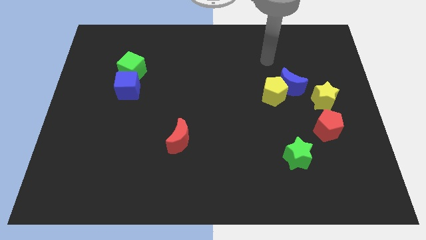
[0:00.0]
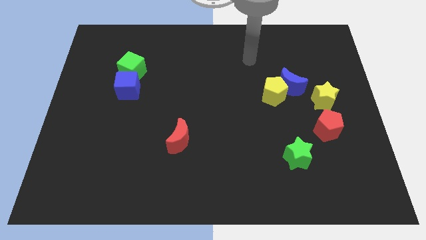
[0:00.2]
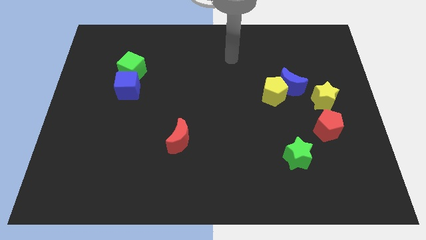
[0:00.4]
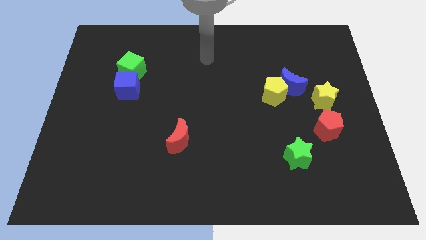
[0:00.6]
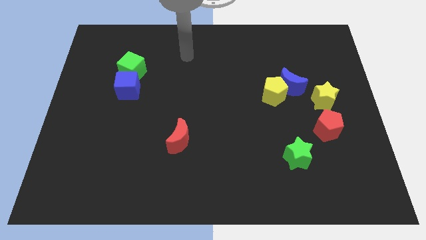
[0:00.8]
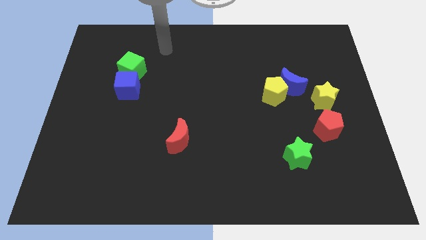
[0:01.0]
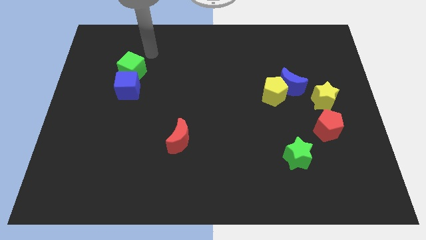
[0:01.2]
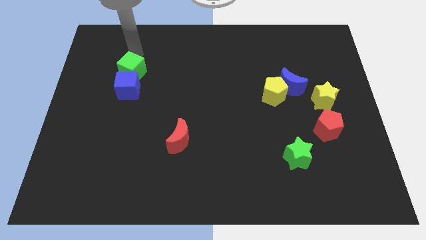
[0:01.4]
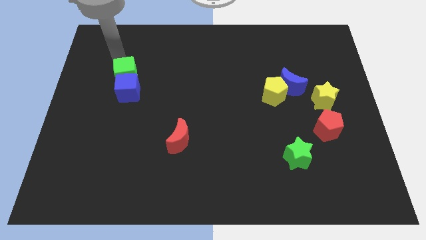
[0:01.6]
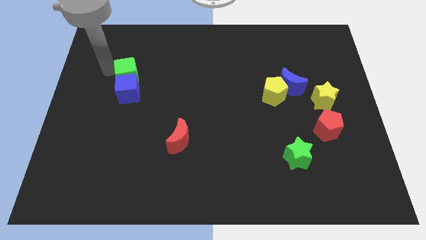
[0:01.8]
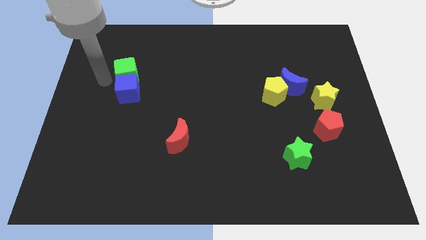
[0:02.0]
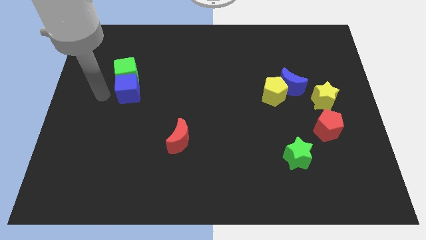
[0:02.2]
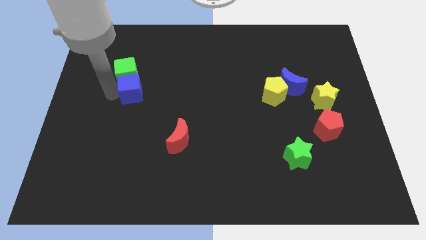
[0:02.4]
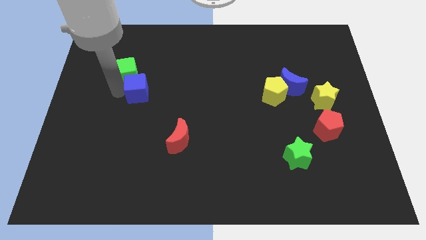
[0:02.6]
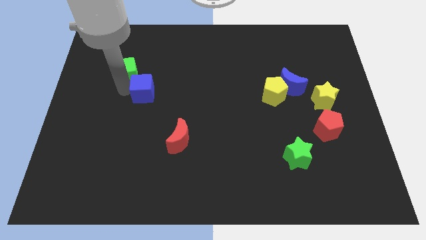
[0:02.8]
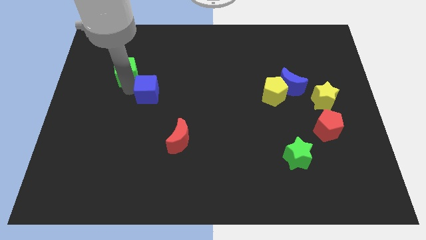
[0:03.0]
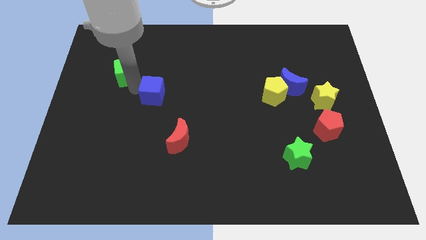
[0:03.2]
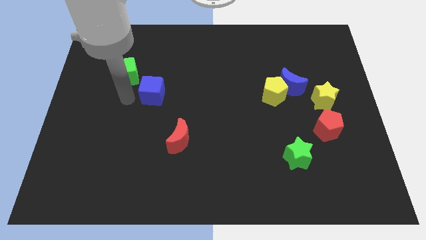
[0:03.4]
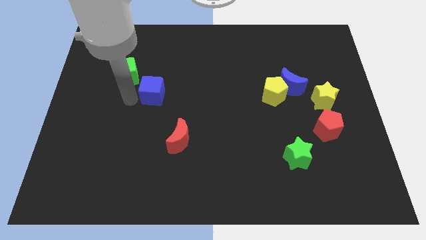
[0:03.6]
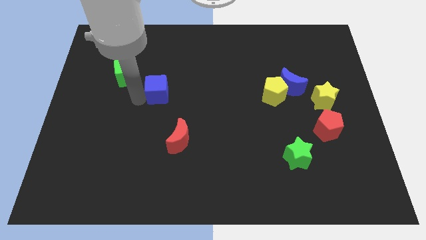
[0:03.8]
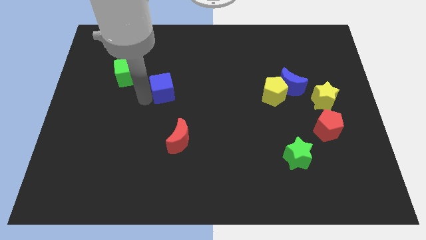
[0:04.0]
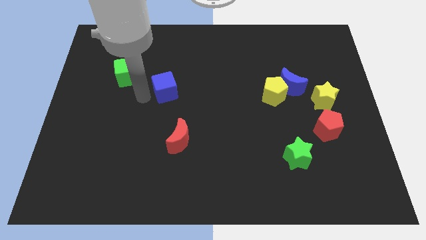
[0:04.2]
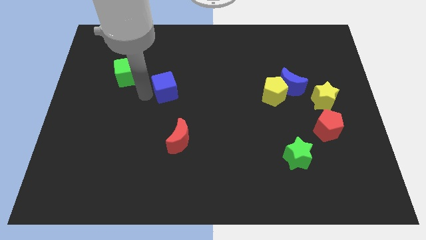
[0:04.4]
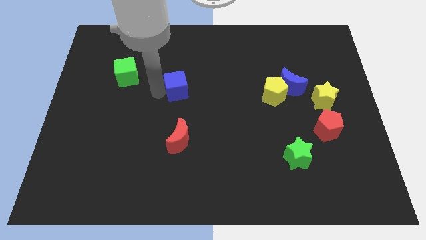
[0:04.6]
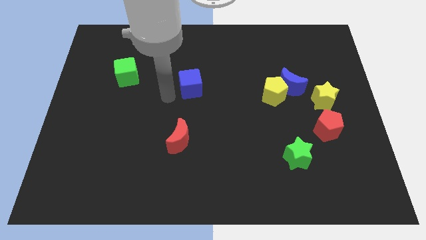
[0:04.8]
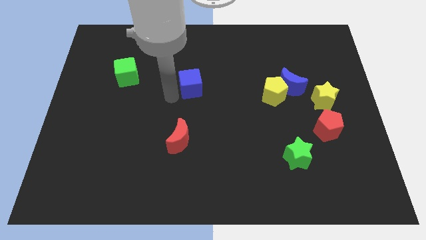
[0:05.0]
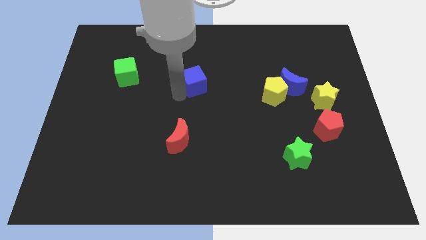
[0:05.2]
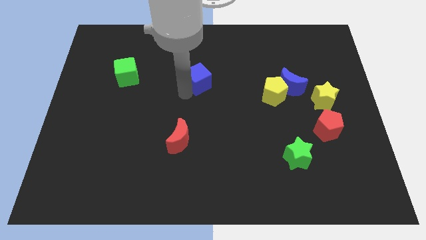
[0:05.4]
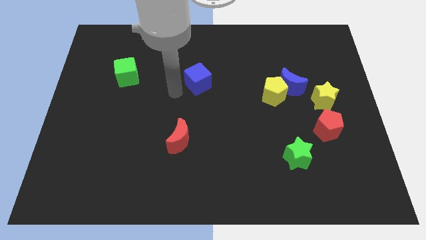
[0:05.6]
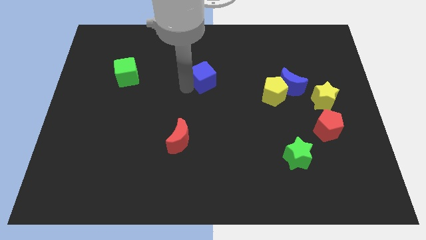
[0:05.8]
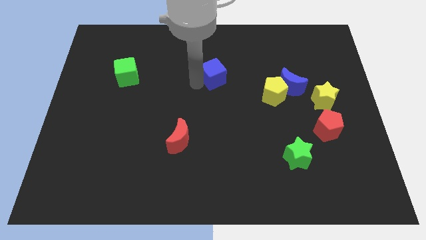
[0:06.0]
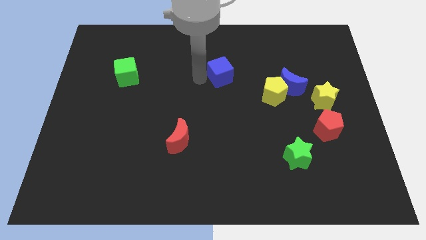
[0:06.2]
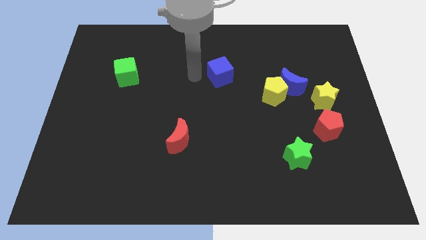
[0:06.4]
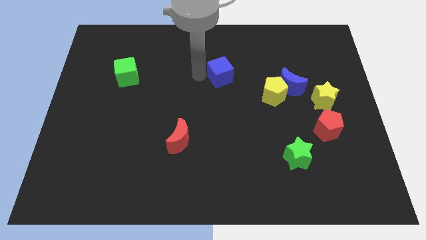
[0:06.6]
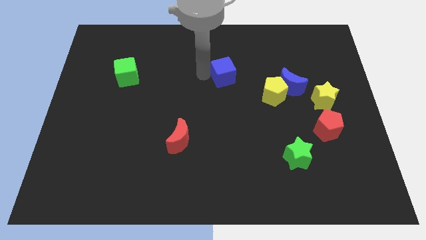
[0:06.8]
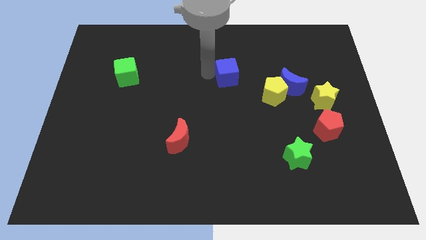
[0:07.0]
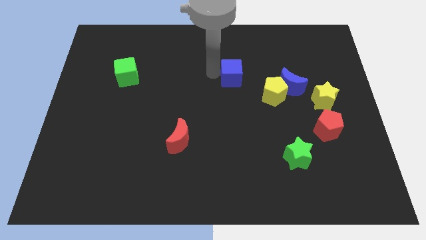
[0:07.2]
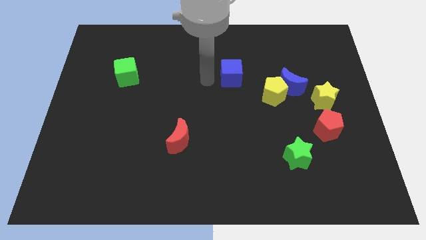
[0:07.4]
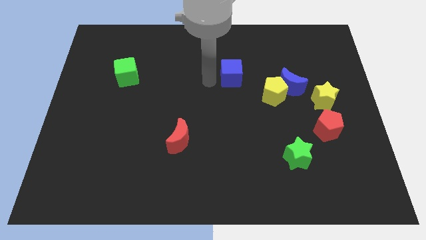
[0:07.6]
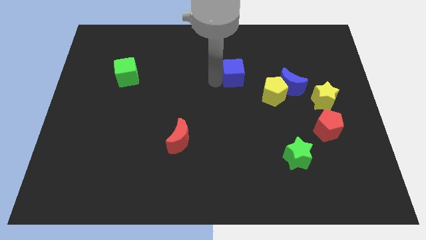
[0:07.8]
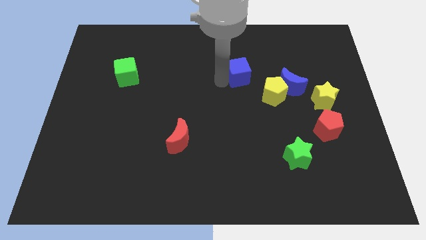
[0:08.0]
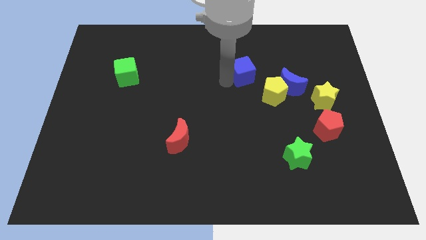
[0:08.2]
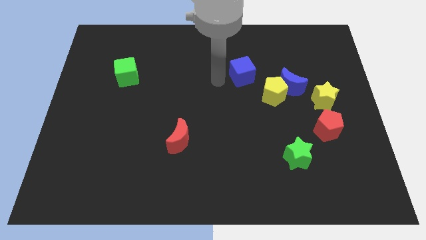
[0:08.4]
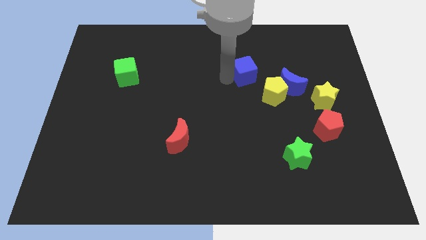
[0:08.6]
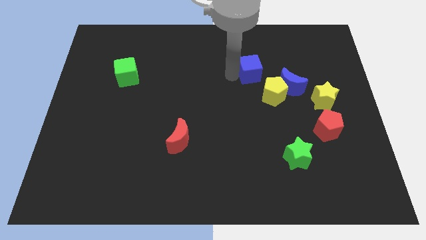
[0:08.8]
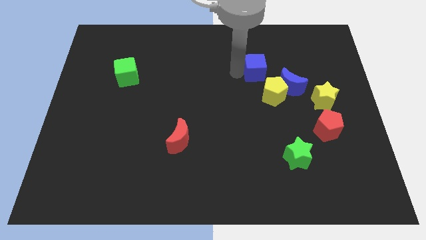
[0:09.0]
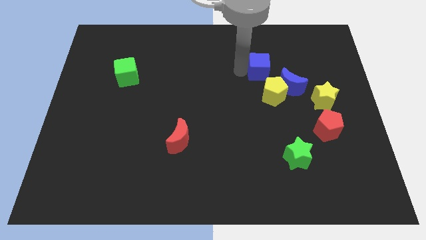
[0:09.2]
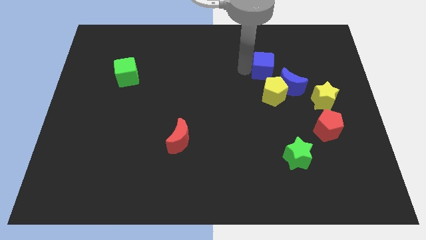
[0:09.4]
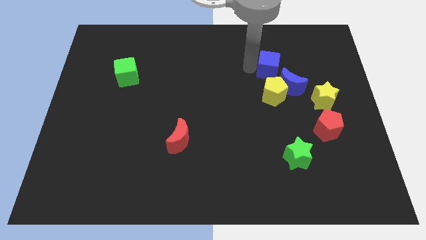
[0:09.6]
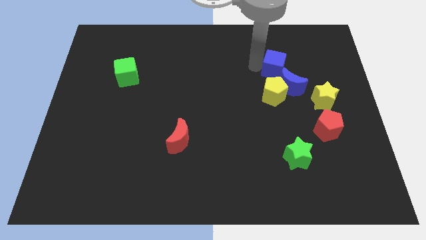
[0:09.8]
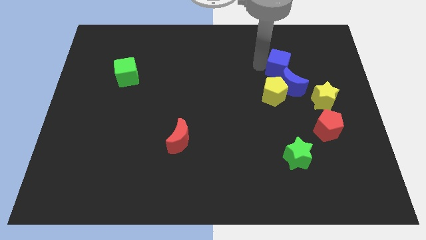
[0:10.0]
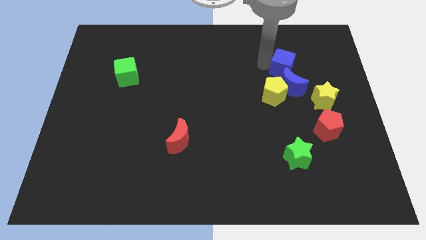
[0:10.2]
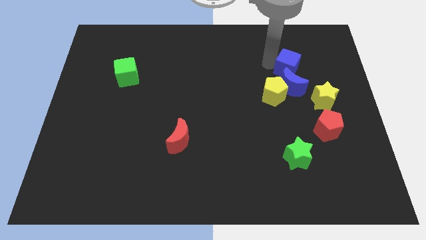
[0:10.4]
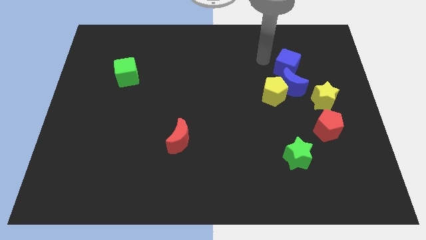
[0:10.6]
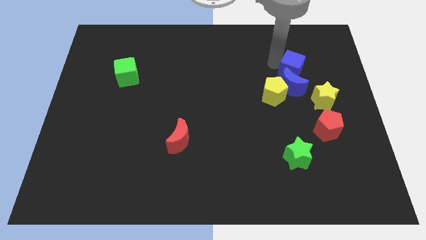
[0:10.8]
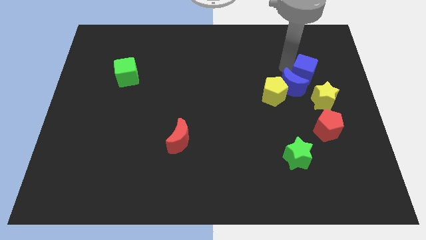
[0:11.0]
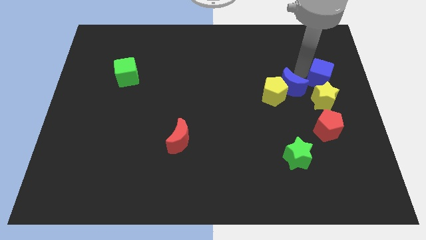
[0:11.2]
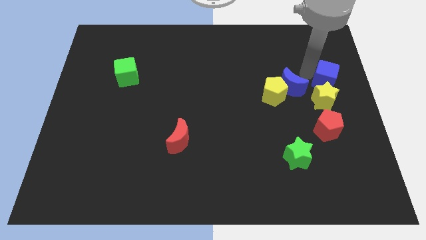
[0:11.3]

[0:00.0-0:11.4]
put the blue cube to the right side

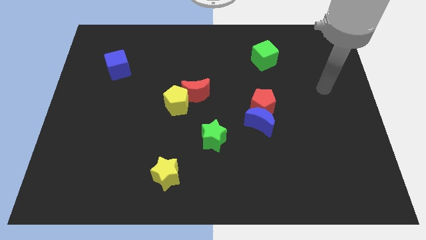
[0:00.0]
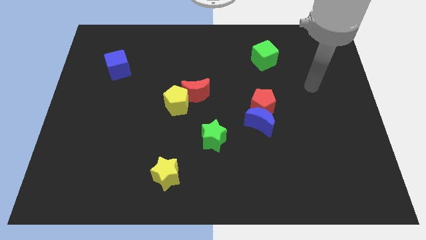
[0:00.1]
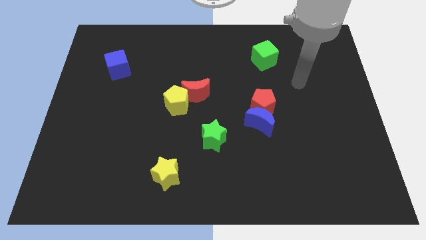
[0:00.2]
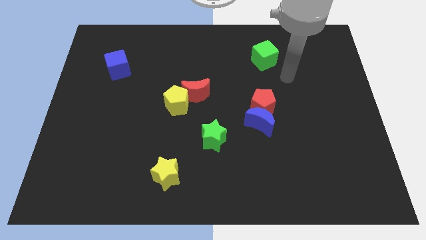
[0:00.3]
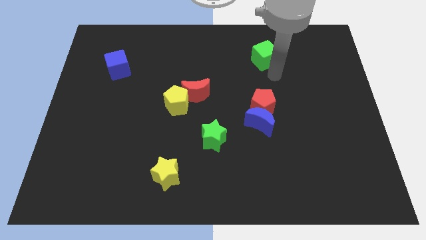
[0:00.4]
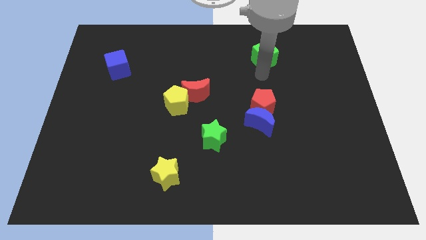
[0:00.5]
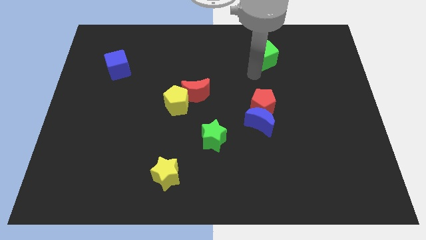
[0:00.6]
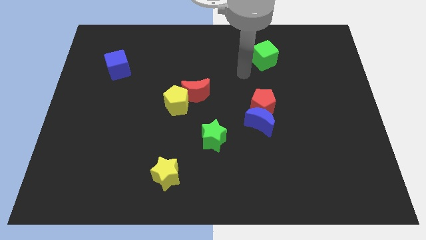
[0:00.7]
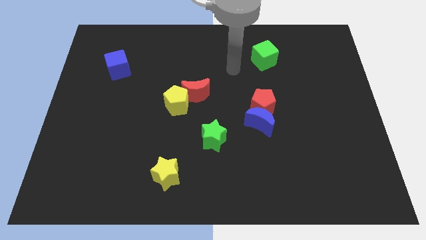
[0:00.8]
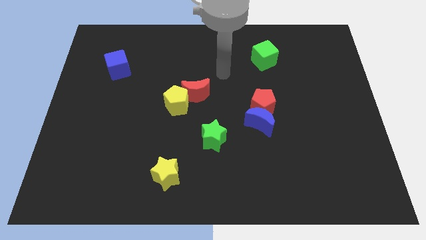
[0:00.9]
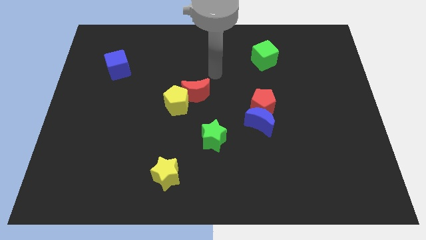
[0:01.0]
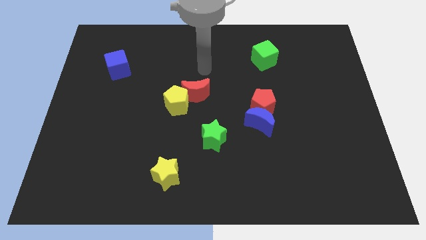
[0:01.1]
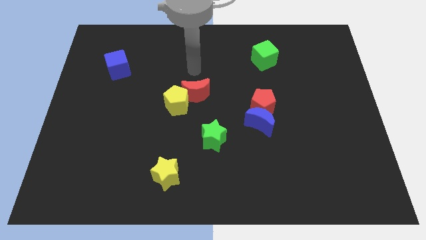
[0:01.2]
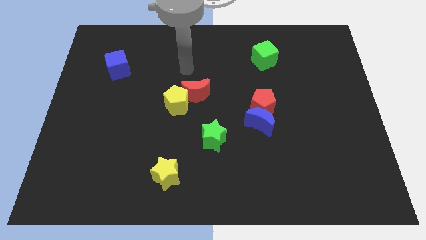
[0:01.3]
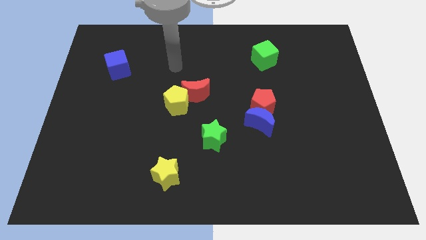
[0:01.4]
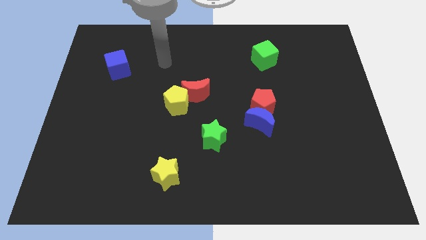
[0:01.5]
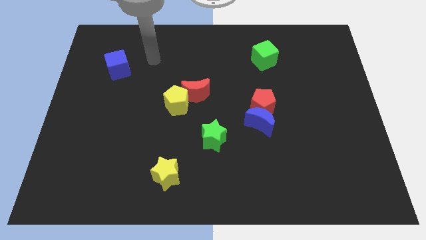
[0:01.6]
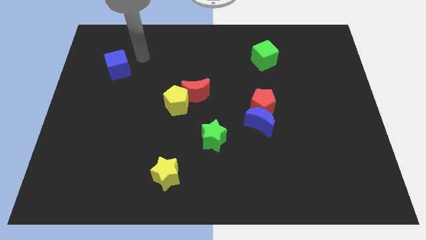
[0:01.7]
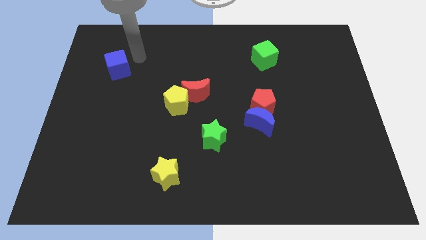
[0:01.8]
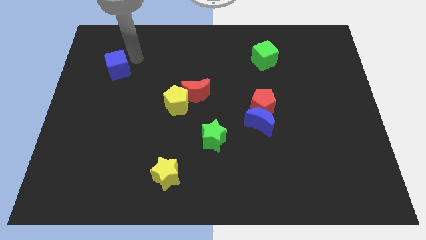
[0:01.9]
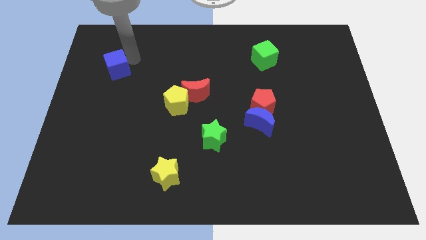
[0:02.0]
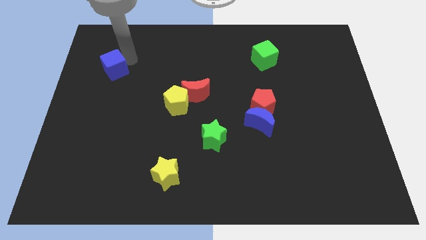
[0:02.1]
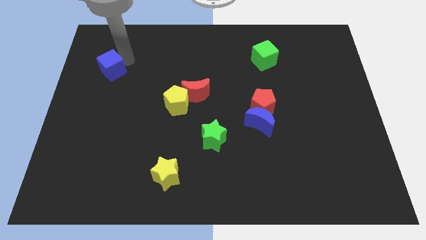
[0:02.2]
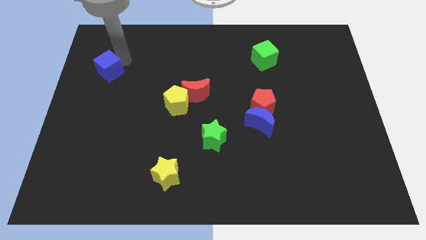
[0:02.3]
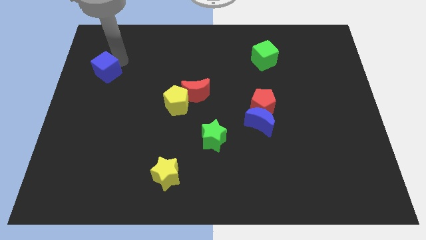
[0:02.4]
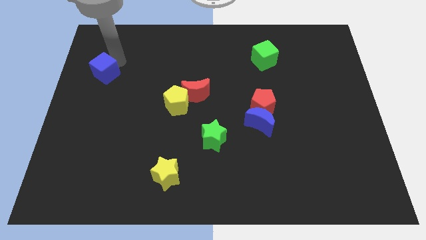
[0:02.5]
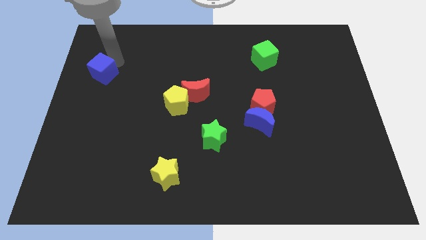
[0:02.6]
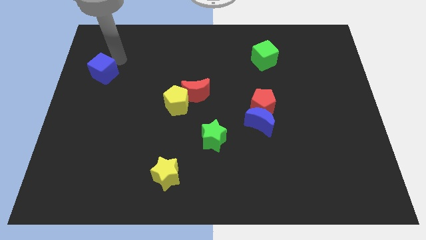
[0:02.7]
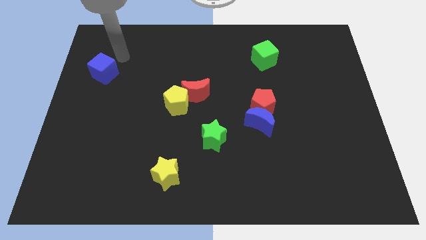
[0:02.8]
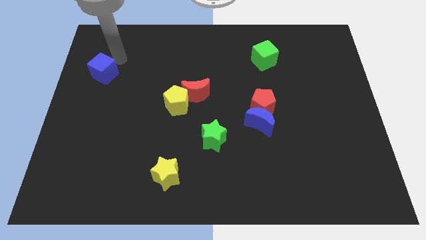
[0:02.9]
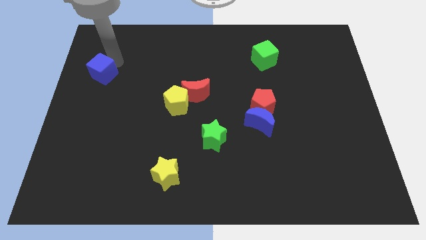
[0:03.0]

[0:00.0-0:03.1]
slide the blue cube to the left side
